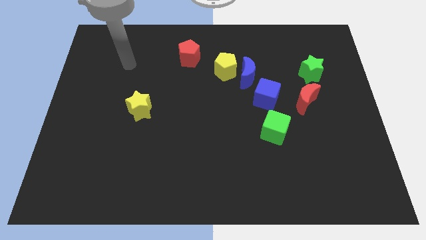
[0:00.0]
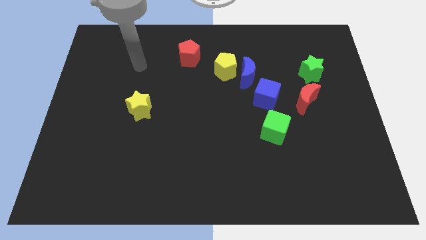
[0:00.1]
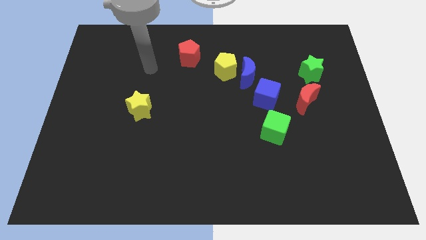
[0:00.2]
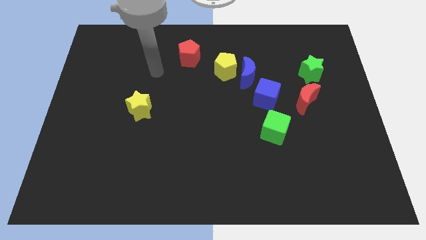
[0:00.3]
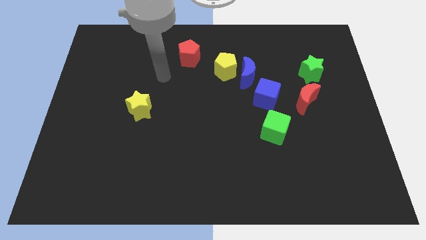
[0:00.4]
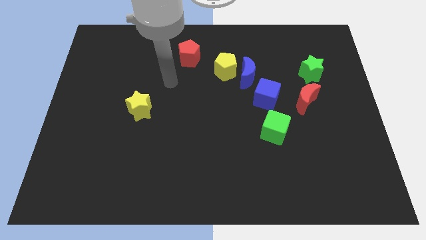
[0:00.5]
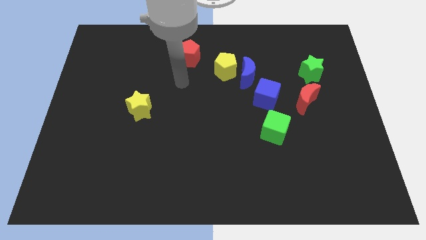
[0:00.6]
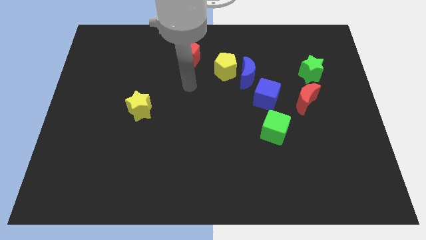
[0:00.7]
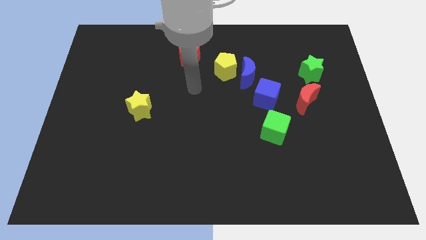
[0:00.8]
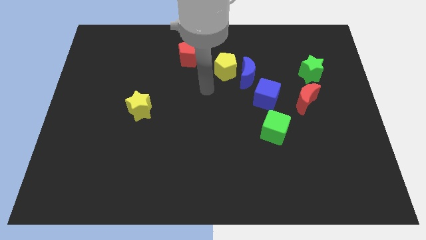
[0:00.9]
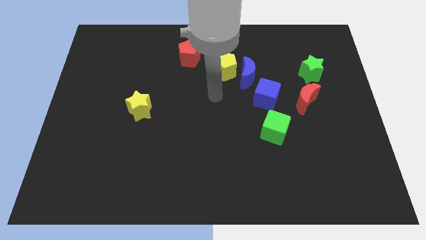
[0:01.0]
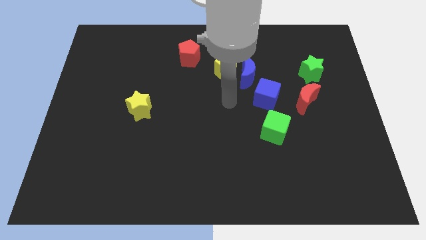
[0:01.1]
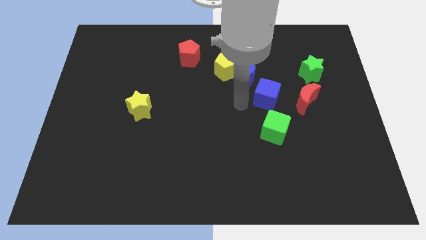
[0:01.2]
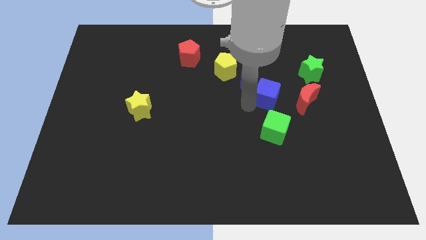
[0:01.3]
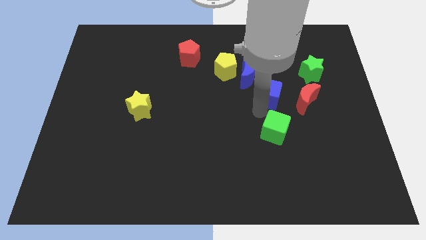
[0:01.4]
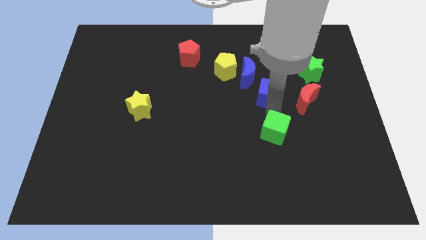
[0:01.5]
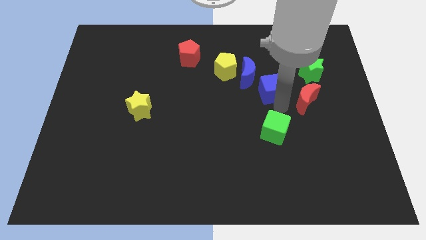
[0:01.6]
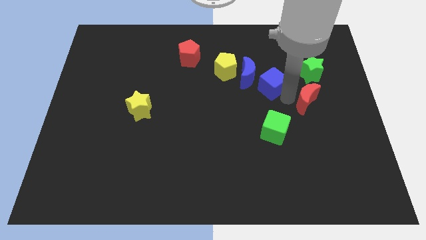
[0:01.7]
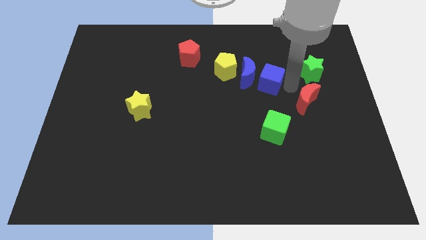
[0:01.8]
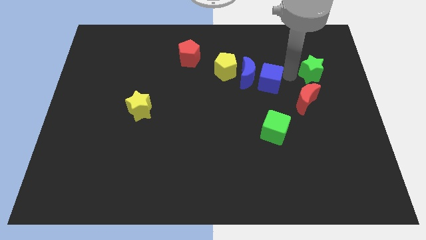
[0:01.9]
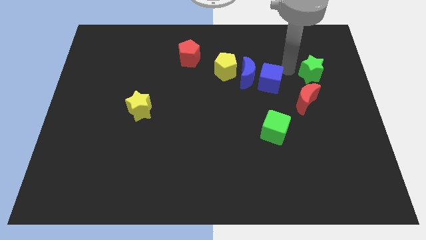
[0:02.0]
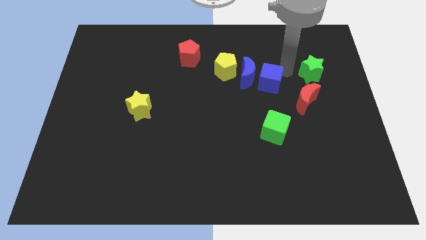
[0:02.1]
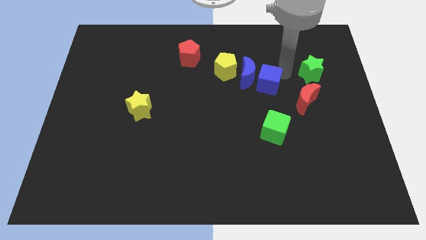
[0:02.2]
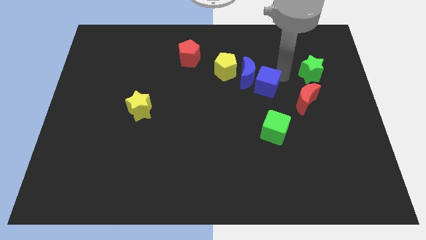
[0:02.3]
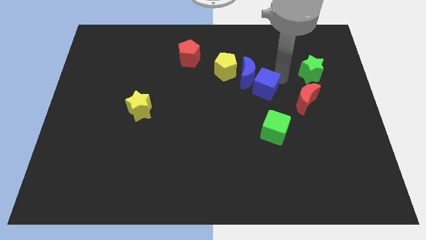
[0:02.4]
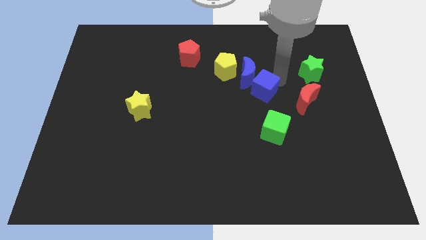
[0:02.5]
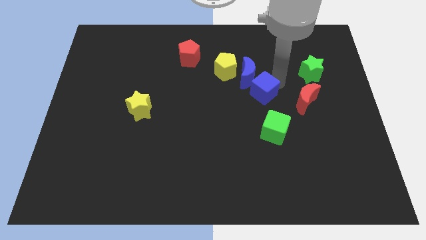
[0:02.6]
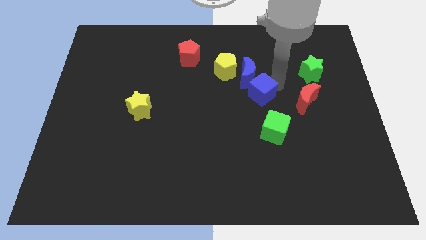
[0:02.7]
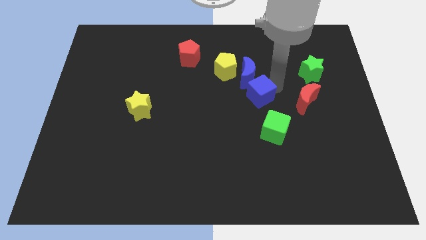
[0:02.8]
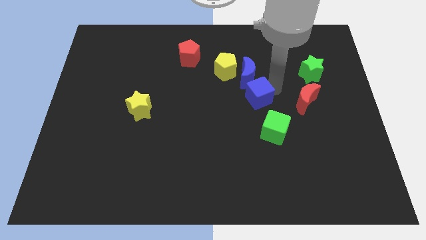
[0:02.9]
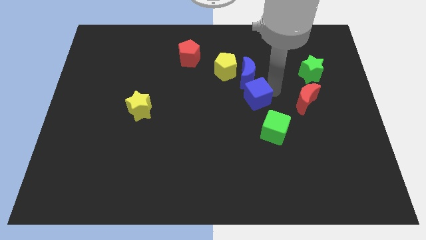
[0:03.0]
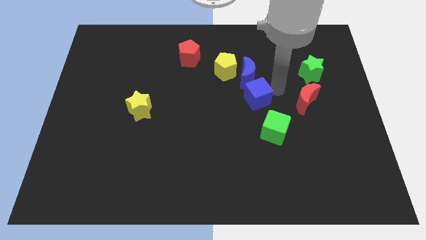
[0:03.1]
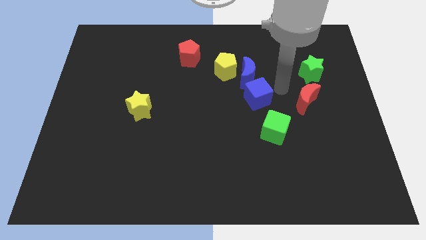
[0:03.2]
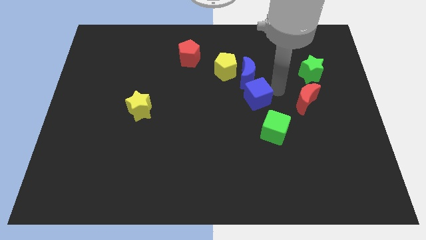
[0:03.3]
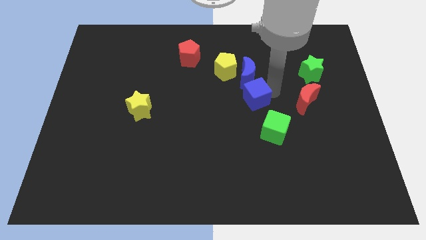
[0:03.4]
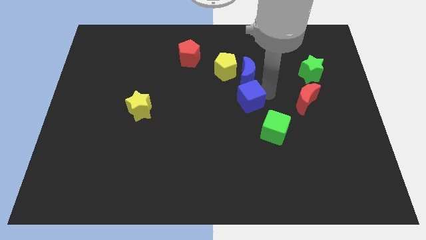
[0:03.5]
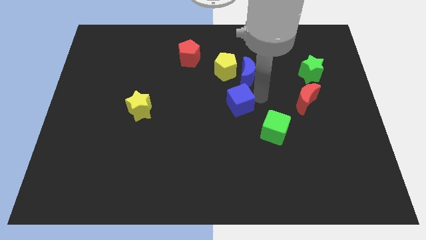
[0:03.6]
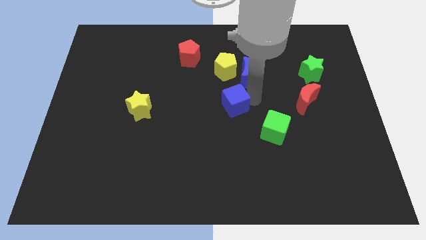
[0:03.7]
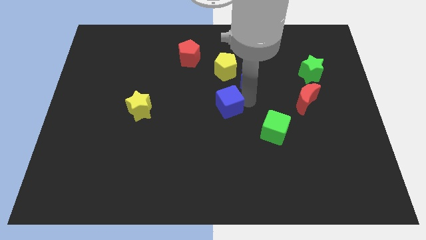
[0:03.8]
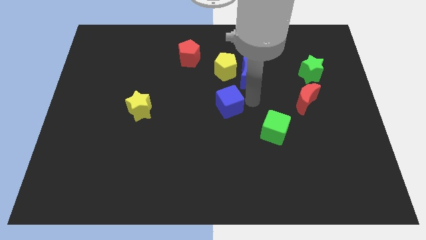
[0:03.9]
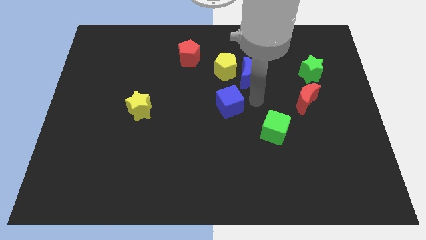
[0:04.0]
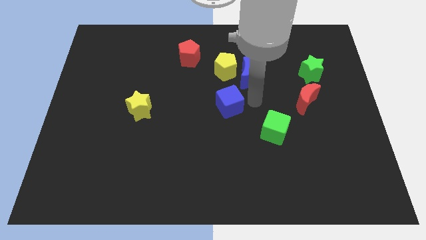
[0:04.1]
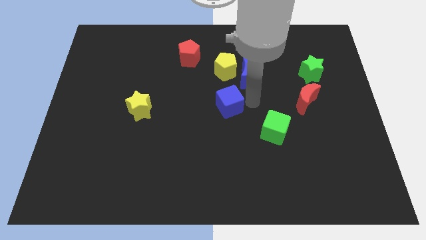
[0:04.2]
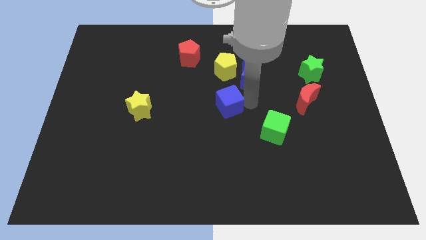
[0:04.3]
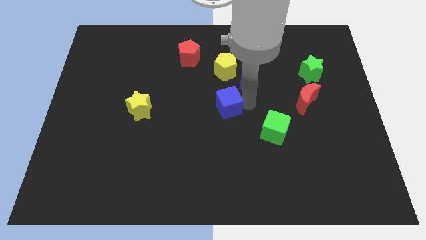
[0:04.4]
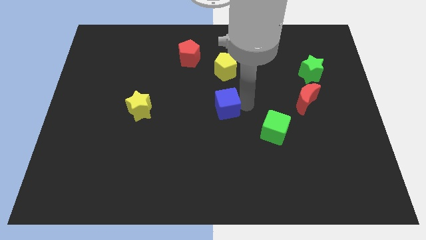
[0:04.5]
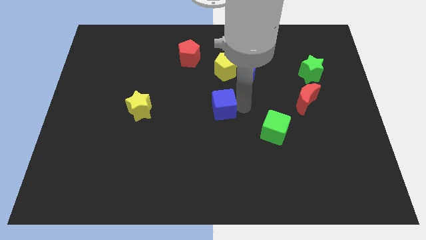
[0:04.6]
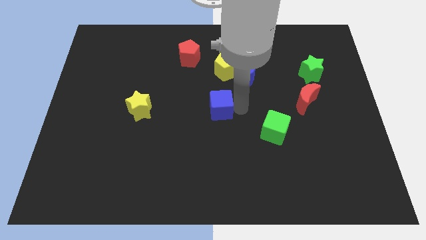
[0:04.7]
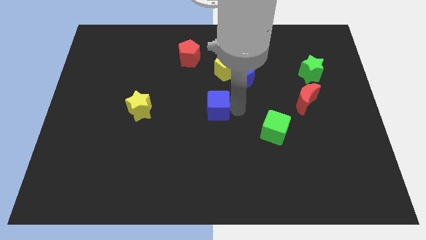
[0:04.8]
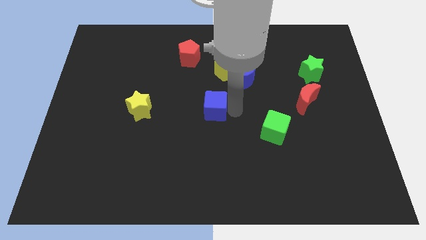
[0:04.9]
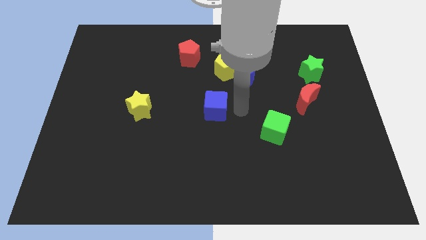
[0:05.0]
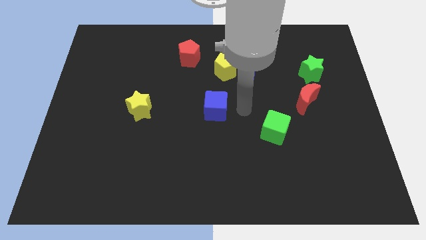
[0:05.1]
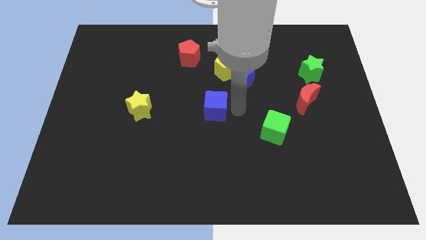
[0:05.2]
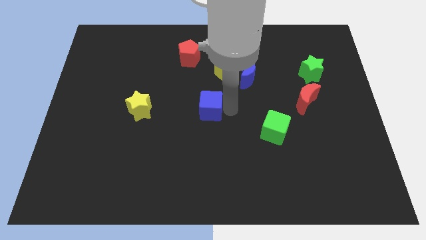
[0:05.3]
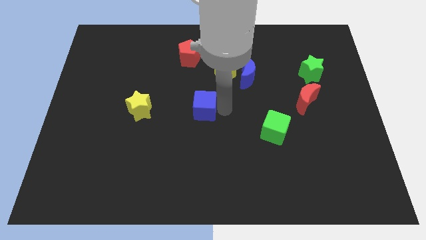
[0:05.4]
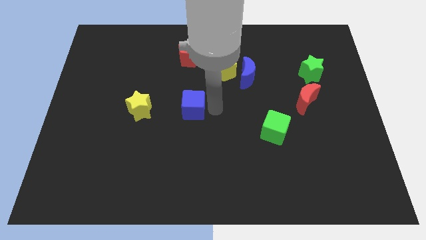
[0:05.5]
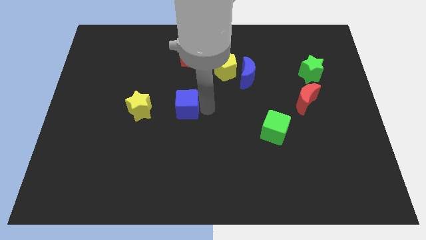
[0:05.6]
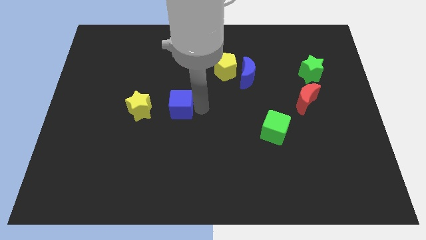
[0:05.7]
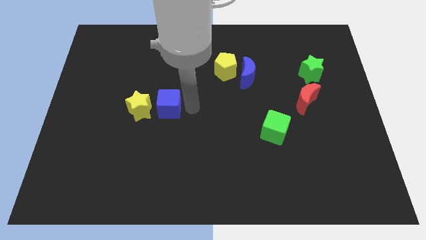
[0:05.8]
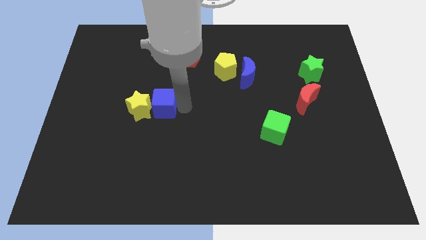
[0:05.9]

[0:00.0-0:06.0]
slide the blue cube to the yellow star

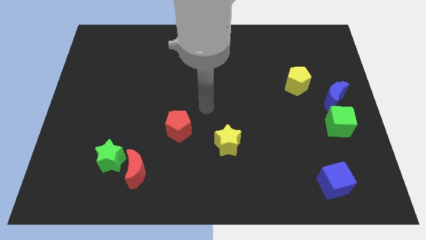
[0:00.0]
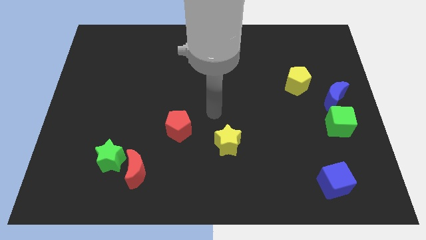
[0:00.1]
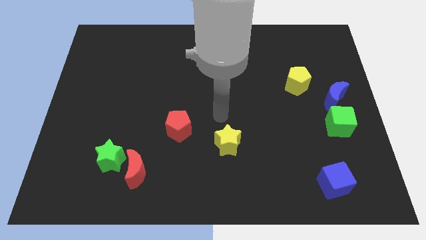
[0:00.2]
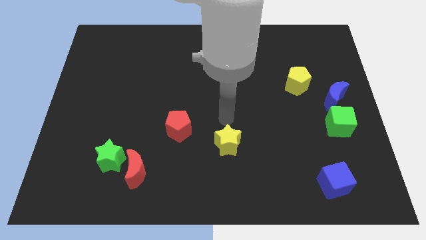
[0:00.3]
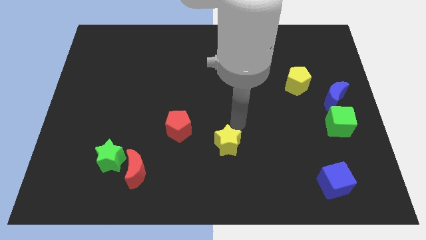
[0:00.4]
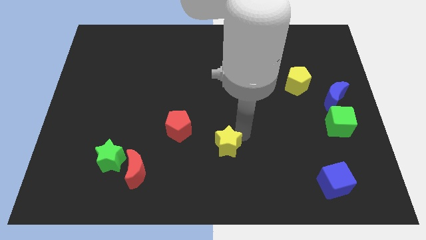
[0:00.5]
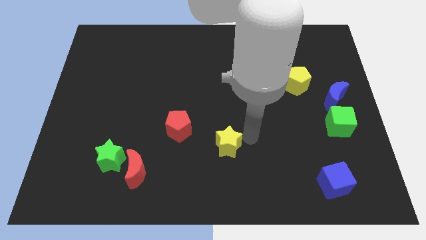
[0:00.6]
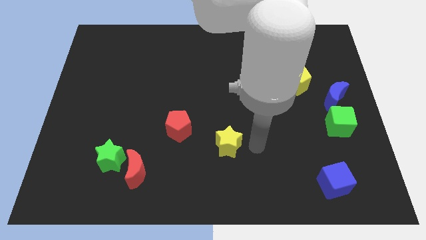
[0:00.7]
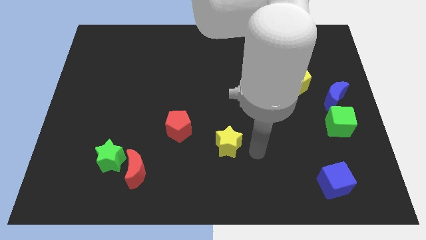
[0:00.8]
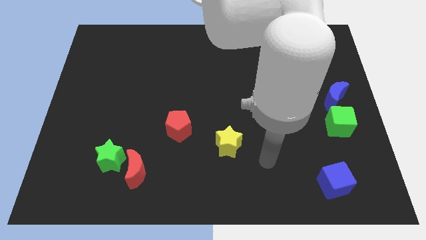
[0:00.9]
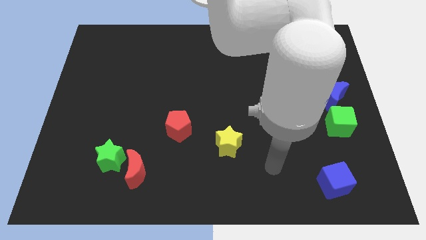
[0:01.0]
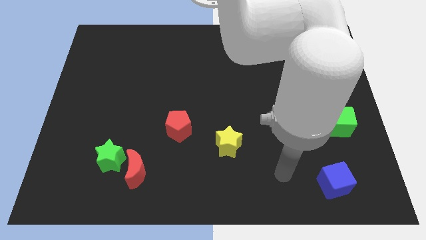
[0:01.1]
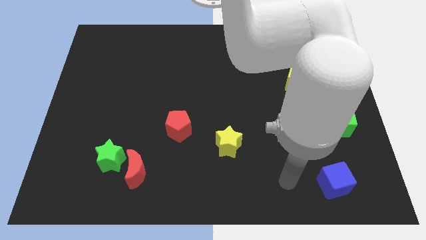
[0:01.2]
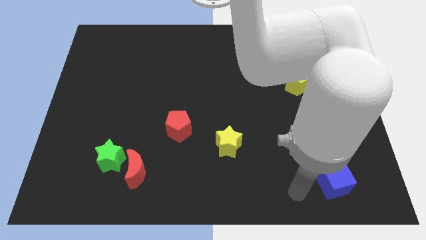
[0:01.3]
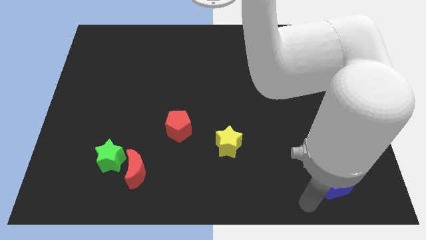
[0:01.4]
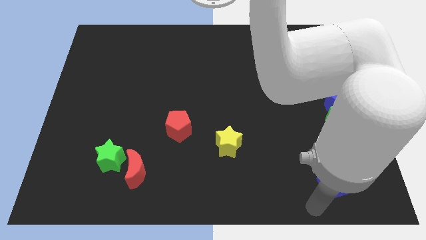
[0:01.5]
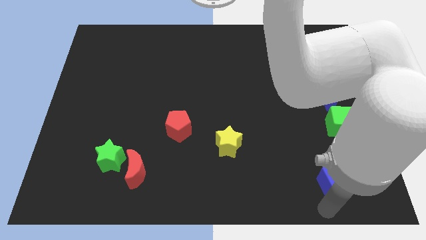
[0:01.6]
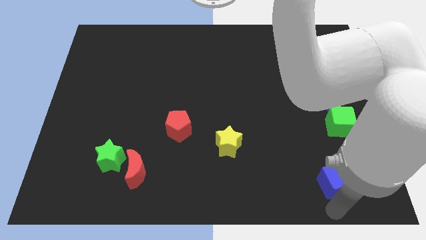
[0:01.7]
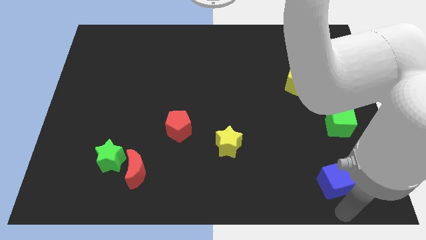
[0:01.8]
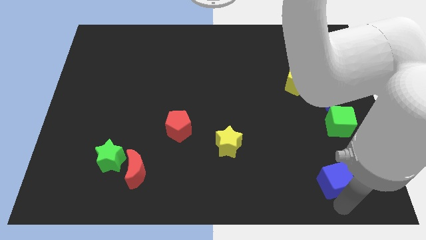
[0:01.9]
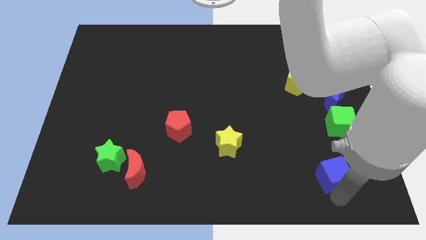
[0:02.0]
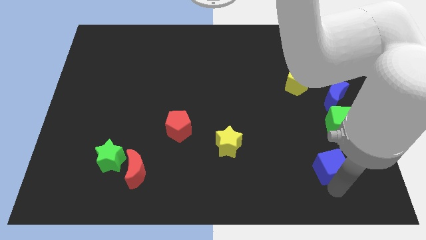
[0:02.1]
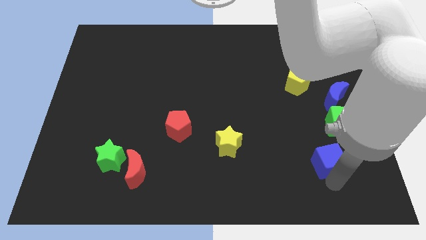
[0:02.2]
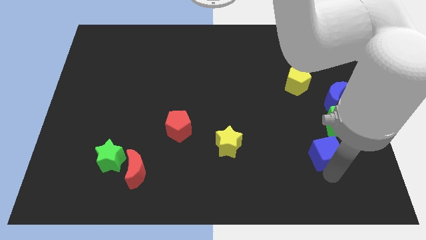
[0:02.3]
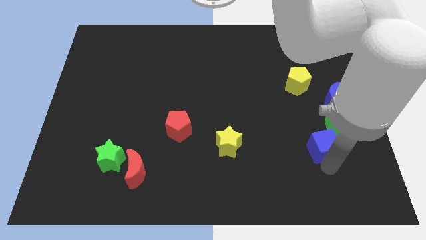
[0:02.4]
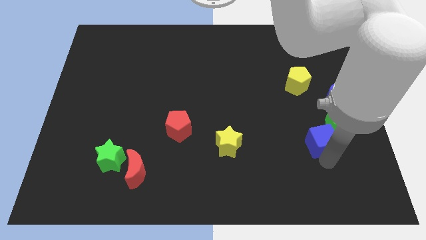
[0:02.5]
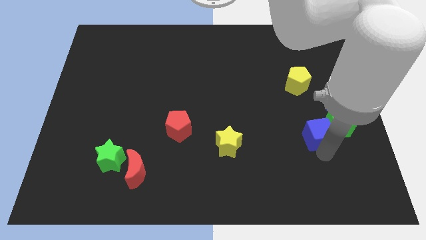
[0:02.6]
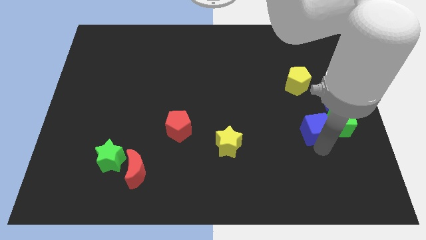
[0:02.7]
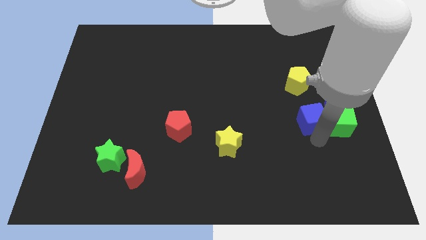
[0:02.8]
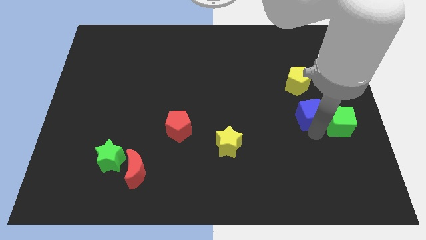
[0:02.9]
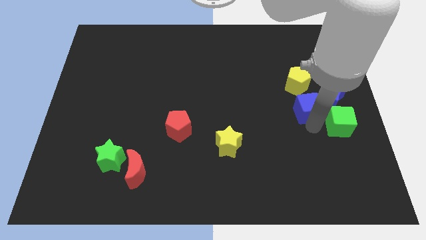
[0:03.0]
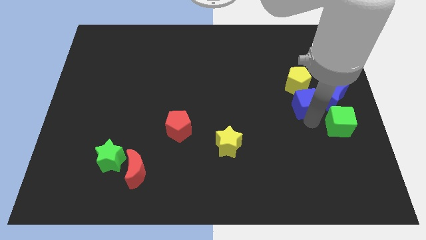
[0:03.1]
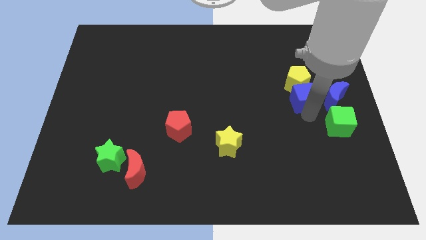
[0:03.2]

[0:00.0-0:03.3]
put the blue cube next to the yellow pentagon
